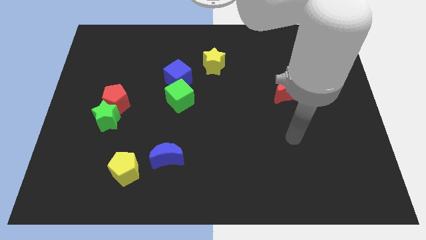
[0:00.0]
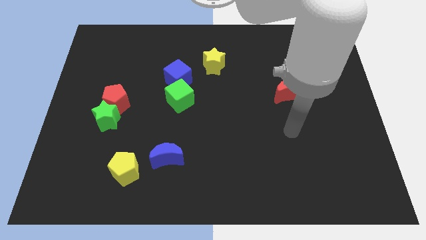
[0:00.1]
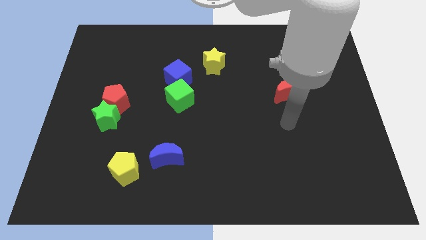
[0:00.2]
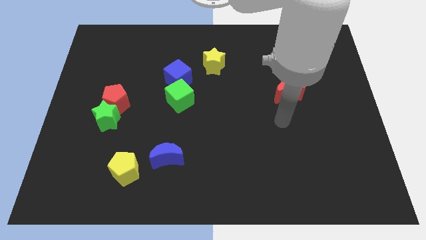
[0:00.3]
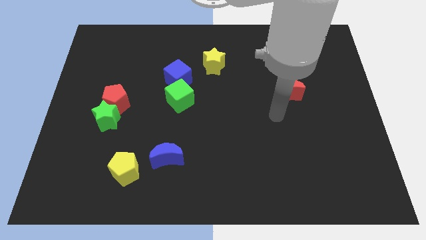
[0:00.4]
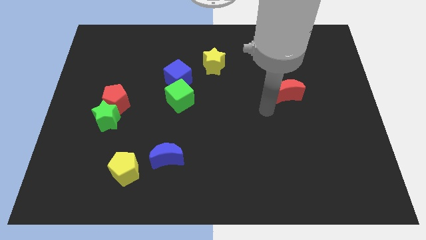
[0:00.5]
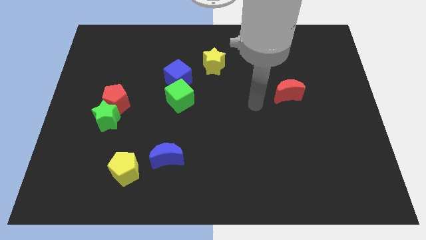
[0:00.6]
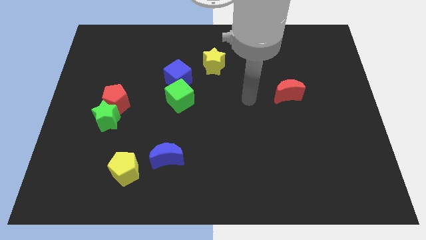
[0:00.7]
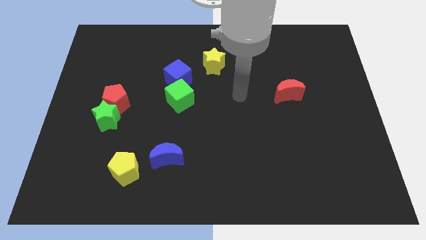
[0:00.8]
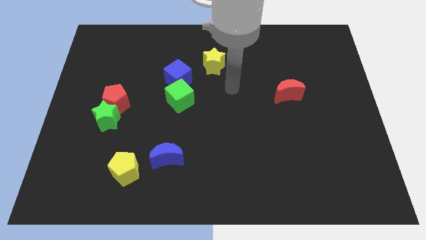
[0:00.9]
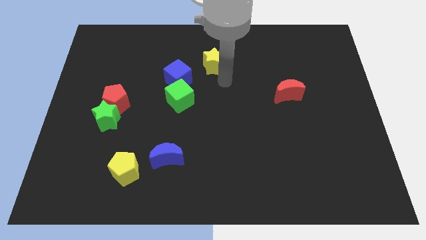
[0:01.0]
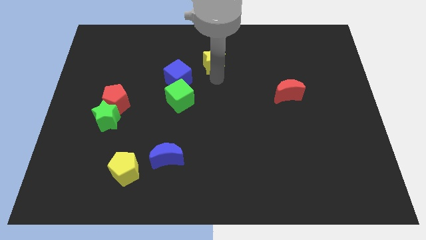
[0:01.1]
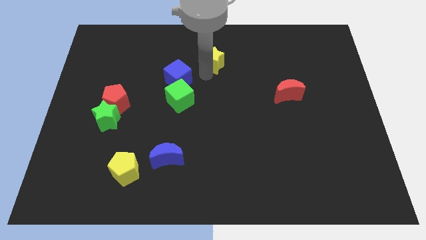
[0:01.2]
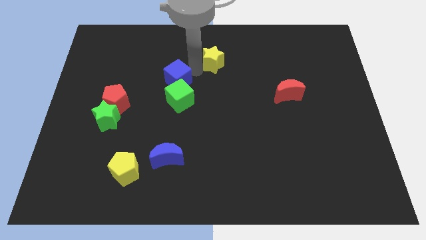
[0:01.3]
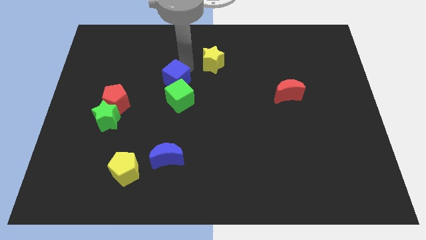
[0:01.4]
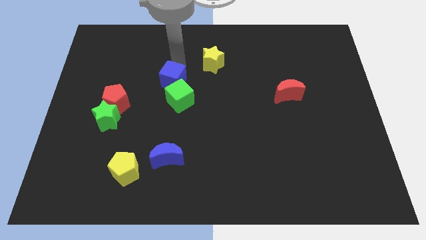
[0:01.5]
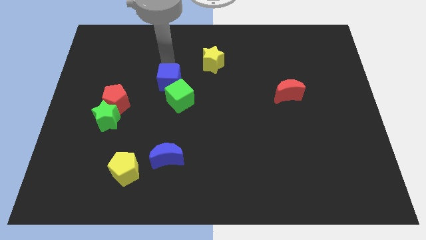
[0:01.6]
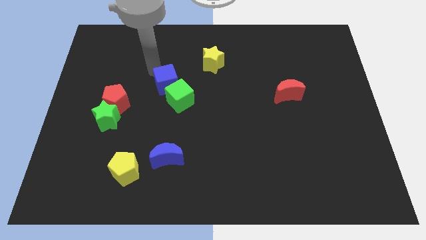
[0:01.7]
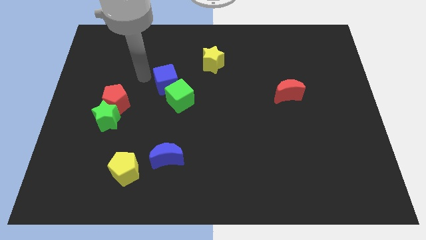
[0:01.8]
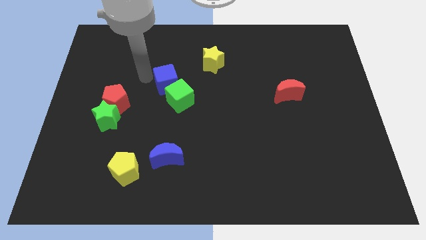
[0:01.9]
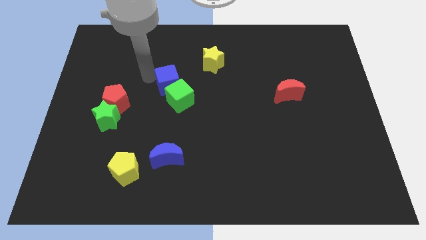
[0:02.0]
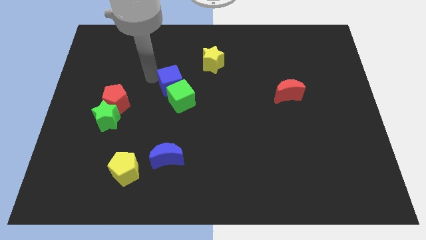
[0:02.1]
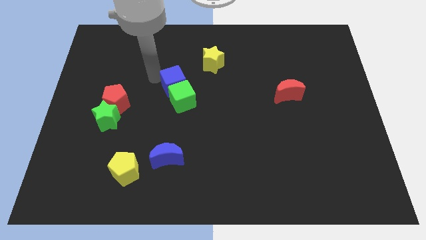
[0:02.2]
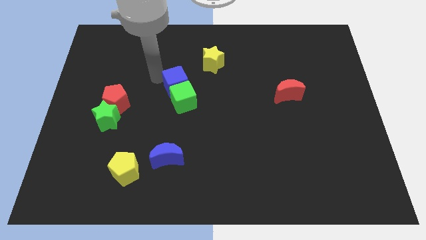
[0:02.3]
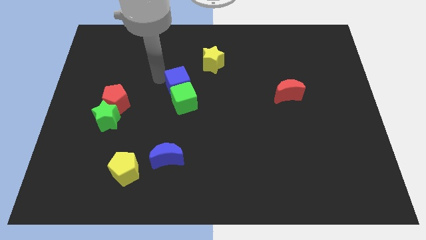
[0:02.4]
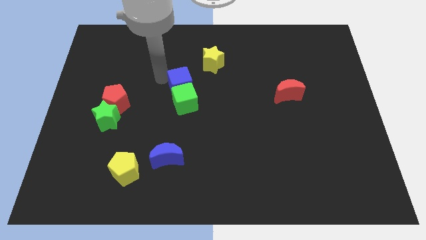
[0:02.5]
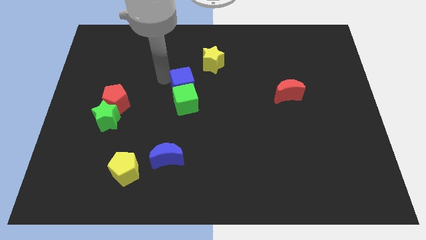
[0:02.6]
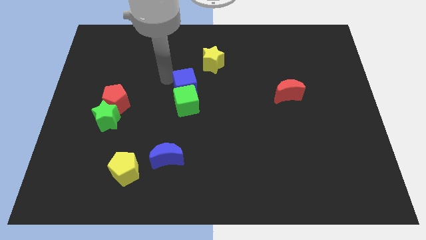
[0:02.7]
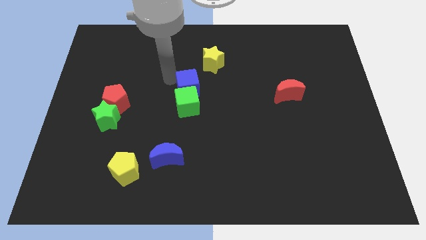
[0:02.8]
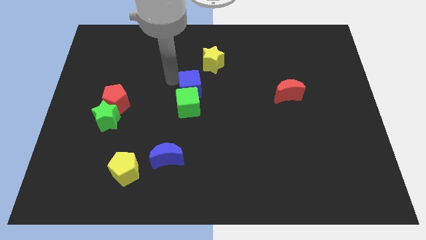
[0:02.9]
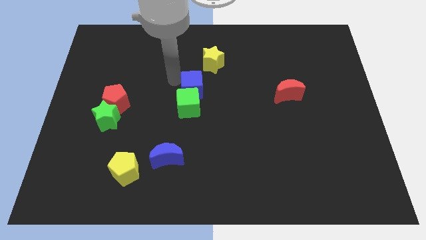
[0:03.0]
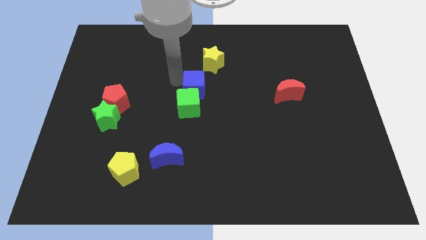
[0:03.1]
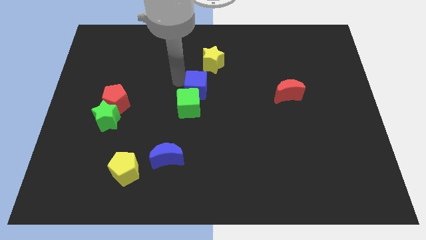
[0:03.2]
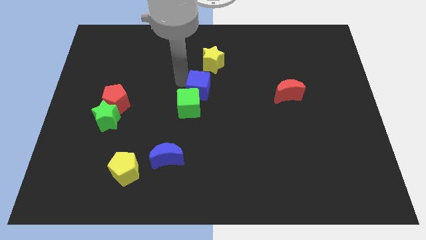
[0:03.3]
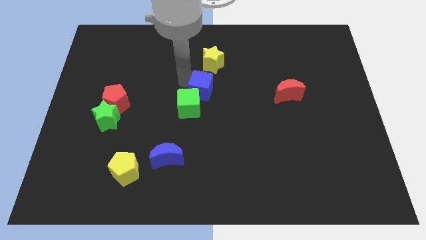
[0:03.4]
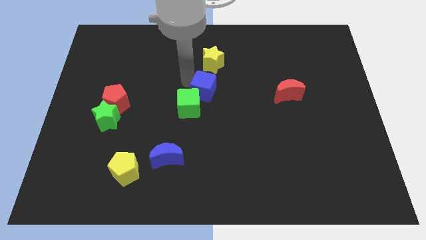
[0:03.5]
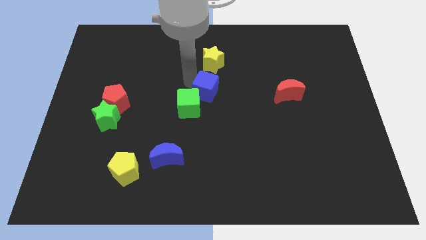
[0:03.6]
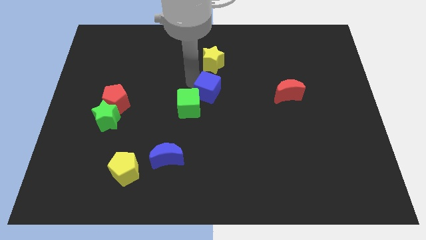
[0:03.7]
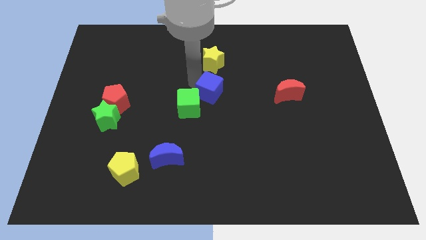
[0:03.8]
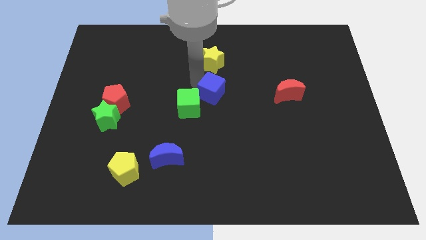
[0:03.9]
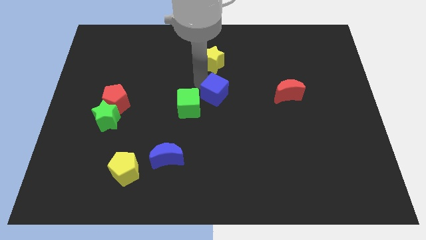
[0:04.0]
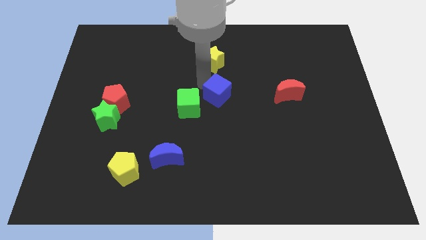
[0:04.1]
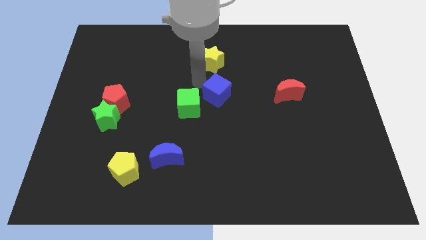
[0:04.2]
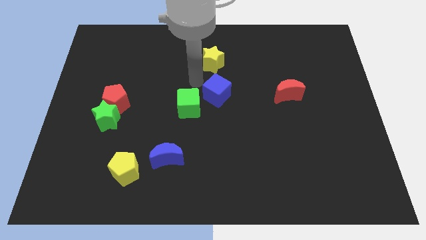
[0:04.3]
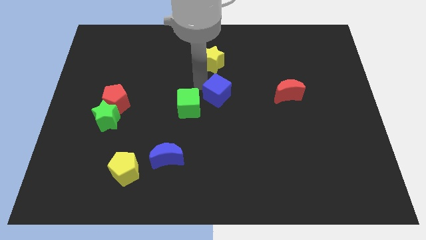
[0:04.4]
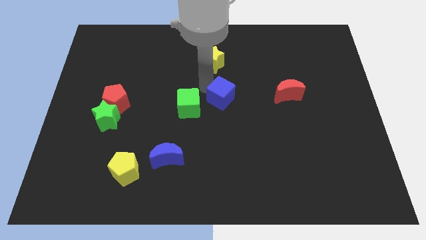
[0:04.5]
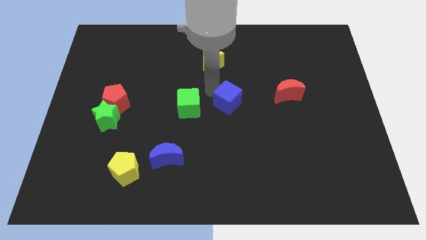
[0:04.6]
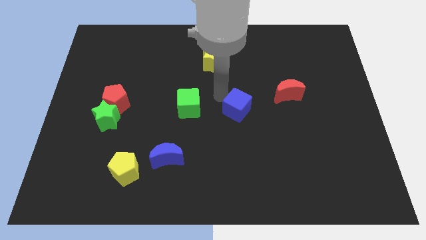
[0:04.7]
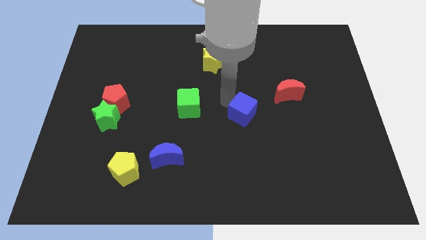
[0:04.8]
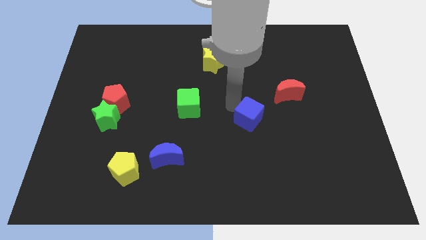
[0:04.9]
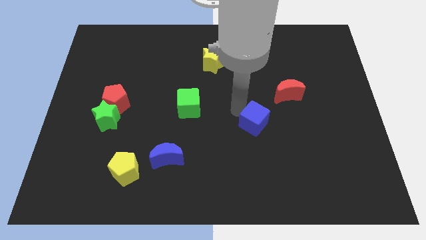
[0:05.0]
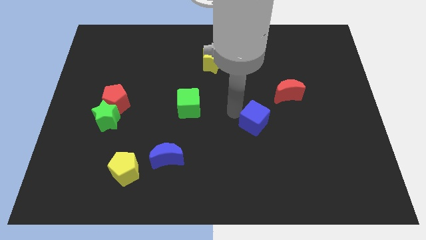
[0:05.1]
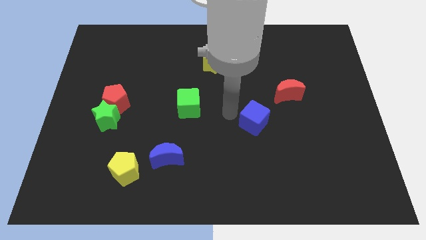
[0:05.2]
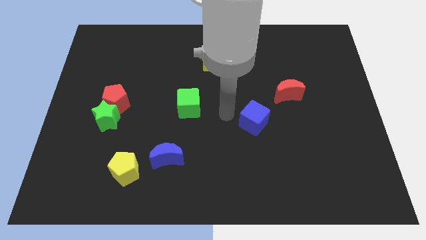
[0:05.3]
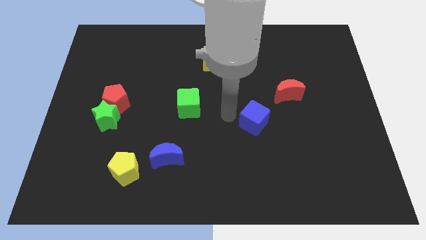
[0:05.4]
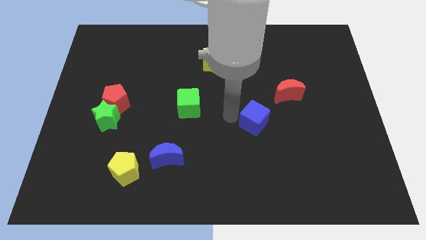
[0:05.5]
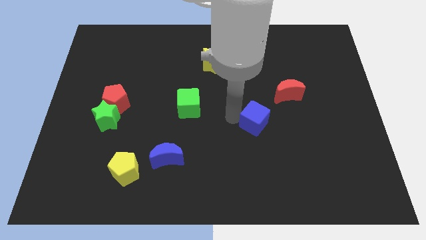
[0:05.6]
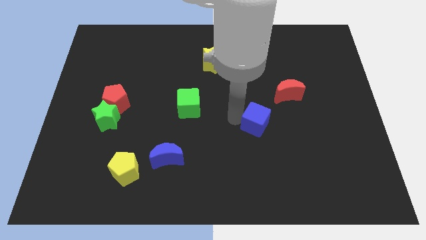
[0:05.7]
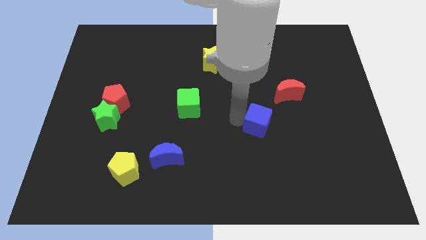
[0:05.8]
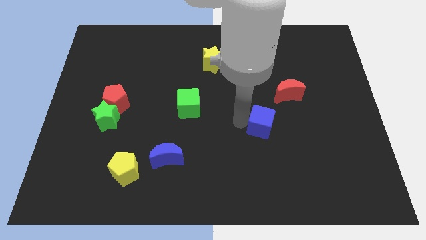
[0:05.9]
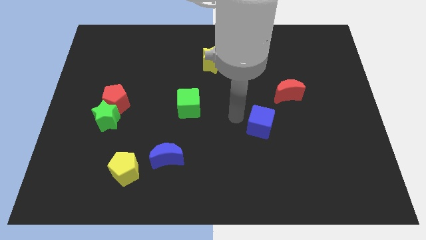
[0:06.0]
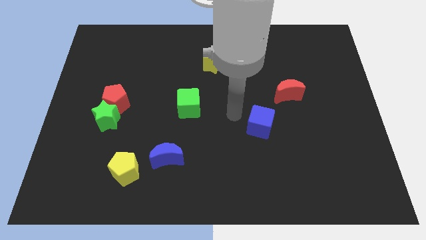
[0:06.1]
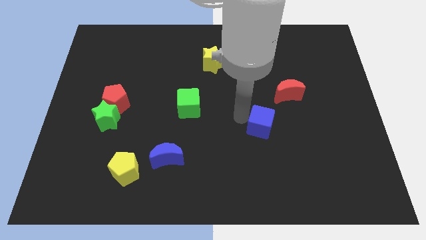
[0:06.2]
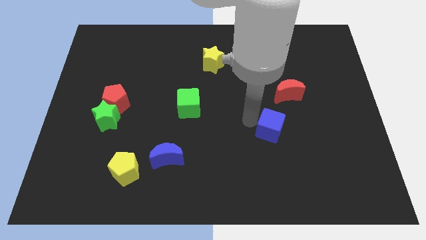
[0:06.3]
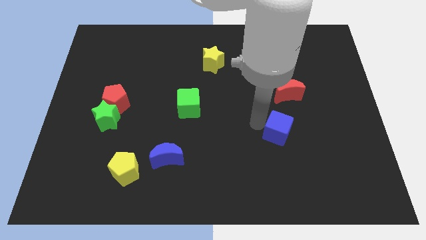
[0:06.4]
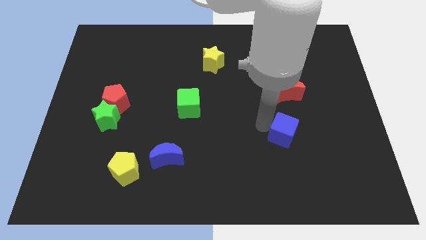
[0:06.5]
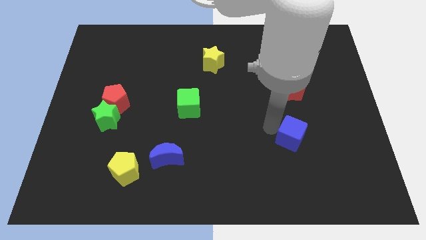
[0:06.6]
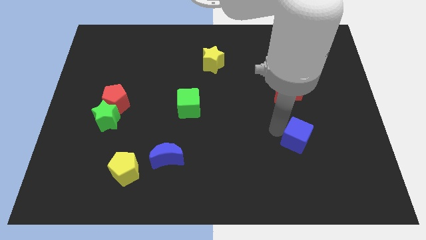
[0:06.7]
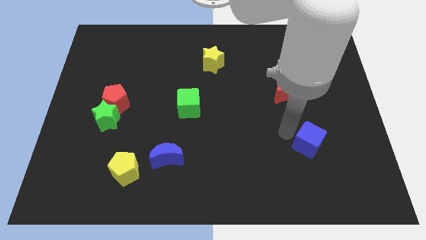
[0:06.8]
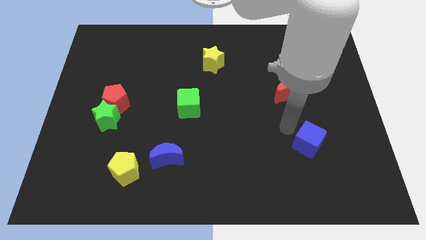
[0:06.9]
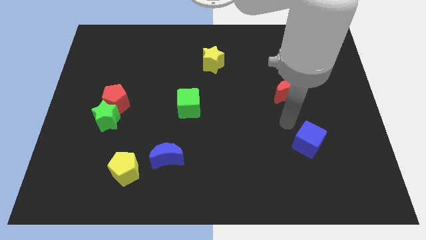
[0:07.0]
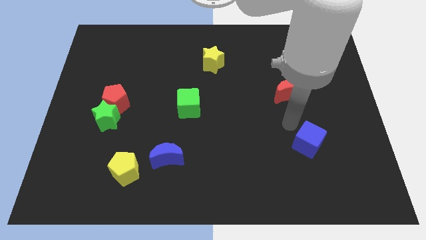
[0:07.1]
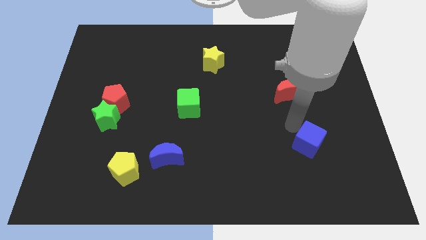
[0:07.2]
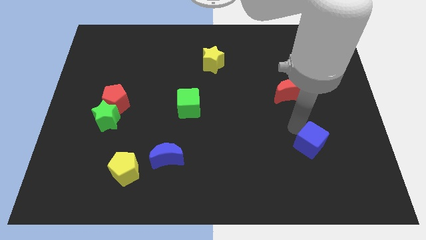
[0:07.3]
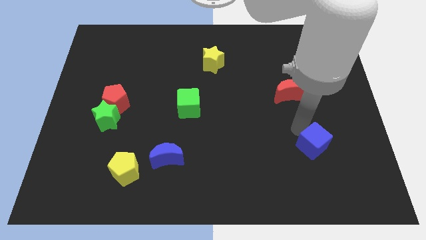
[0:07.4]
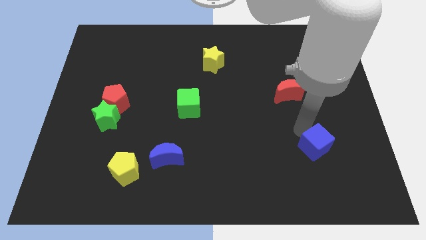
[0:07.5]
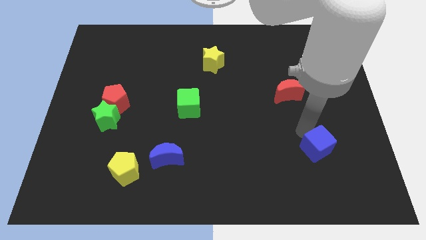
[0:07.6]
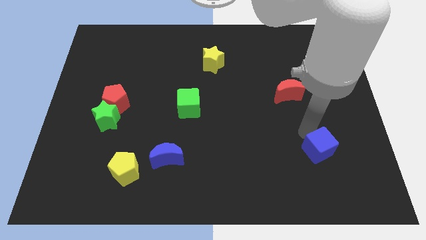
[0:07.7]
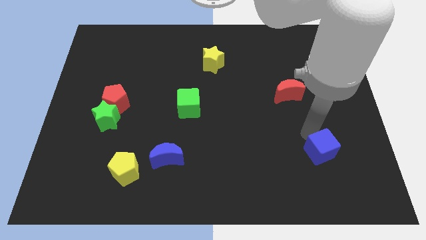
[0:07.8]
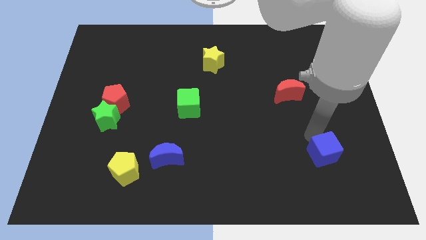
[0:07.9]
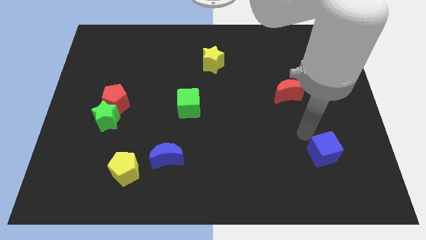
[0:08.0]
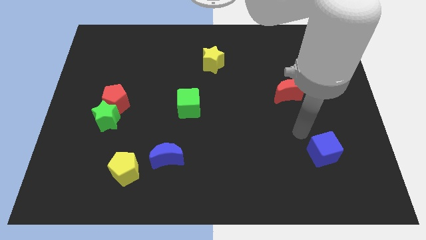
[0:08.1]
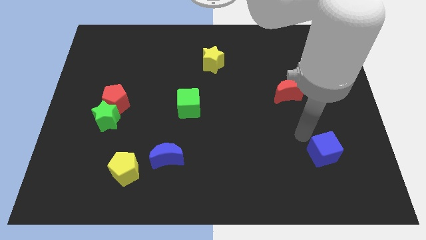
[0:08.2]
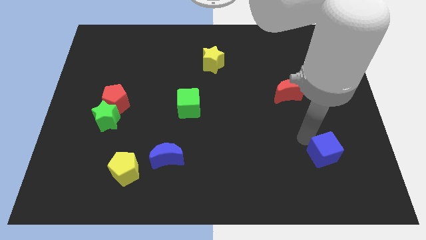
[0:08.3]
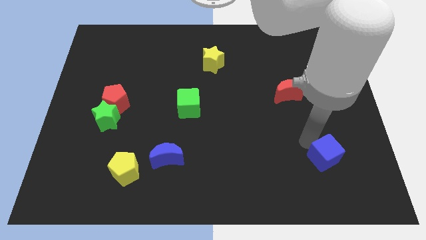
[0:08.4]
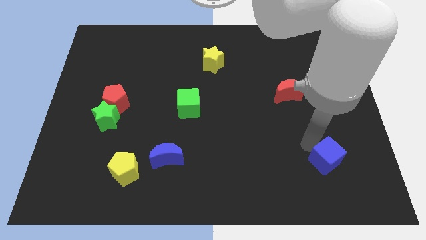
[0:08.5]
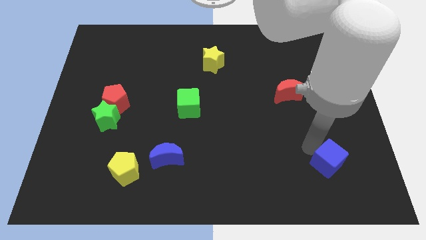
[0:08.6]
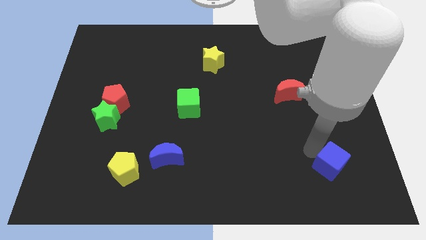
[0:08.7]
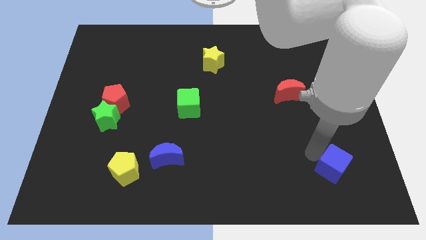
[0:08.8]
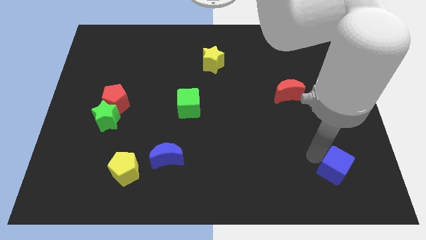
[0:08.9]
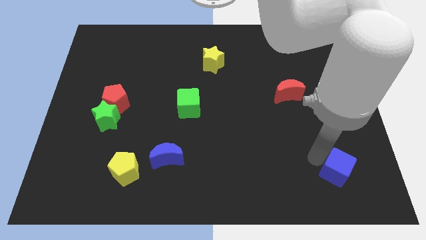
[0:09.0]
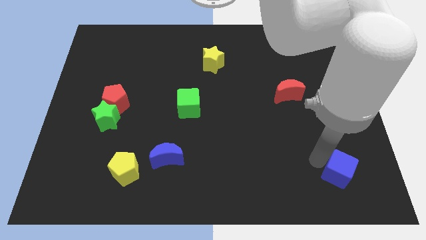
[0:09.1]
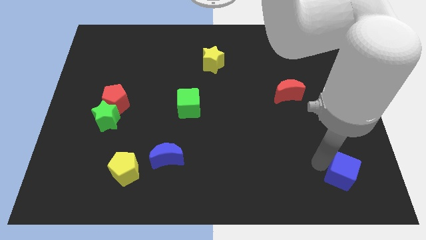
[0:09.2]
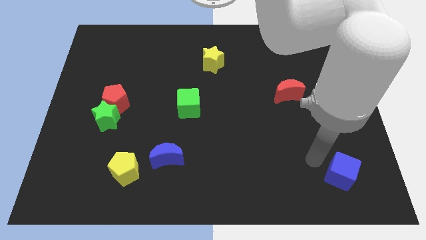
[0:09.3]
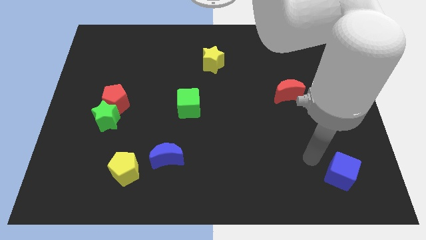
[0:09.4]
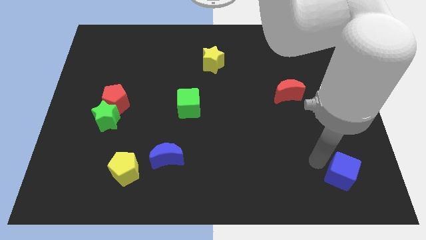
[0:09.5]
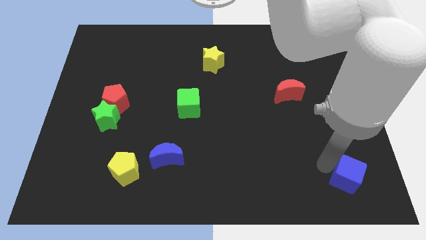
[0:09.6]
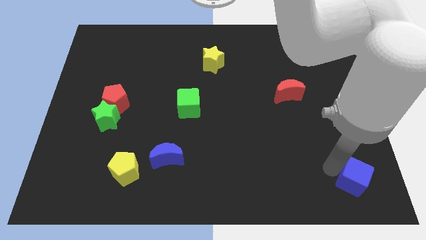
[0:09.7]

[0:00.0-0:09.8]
move the blue cube to the bottom right of the board
